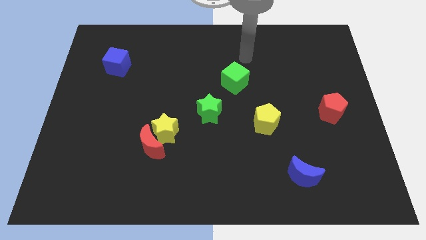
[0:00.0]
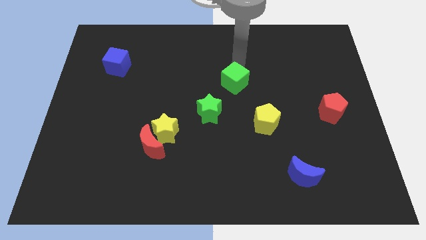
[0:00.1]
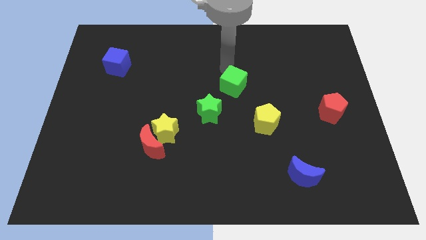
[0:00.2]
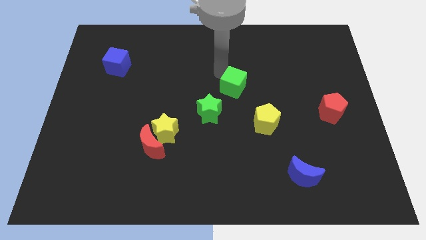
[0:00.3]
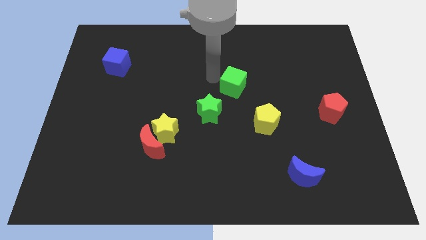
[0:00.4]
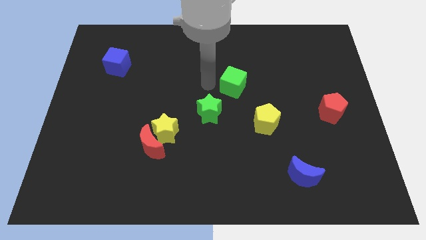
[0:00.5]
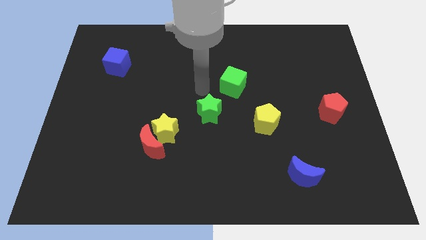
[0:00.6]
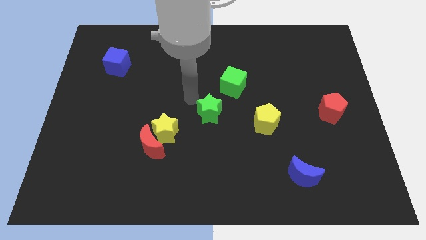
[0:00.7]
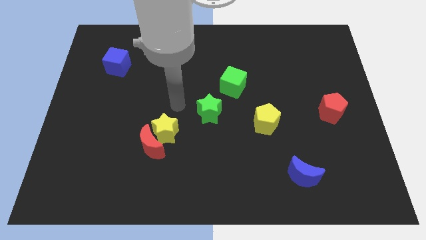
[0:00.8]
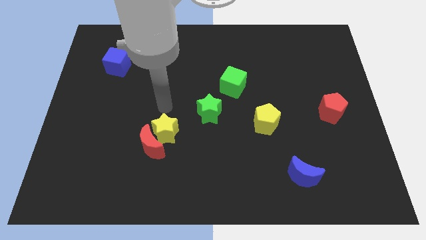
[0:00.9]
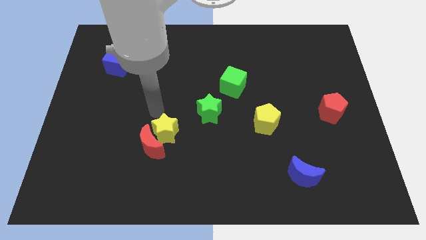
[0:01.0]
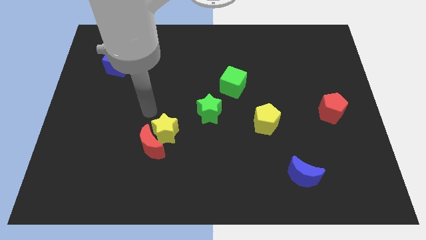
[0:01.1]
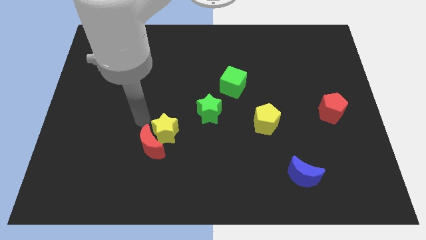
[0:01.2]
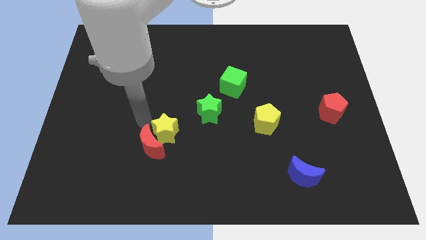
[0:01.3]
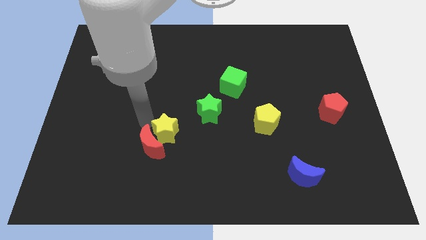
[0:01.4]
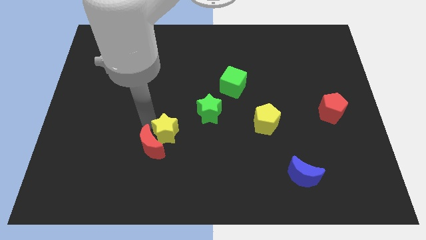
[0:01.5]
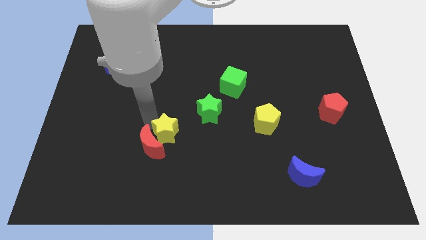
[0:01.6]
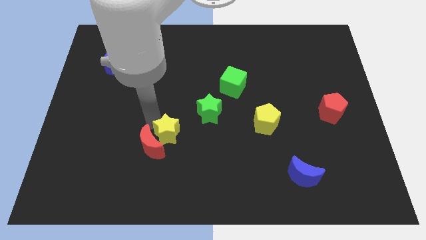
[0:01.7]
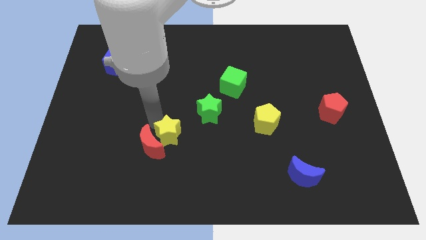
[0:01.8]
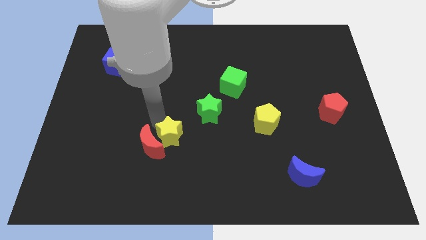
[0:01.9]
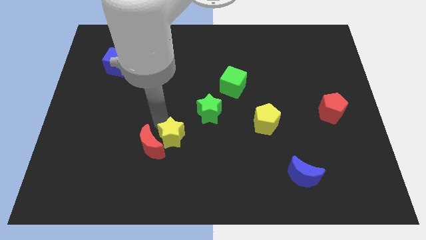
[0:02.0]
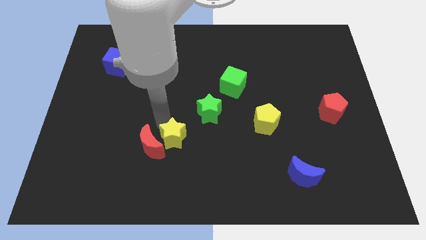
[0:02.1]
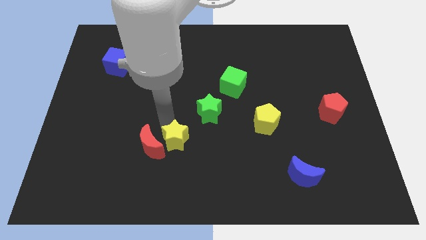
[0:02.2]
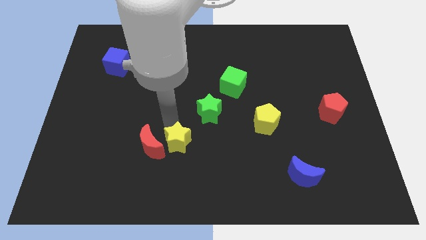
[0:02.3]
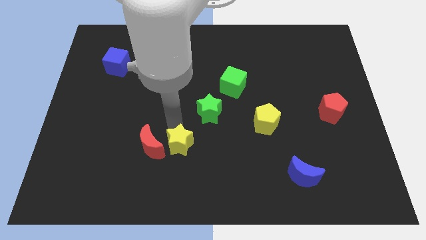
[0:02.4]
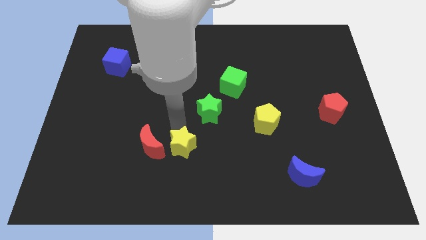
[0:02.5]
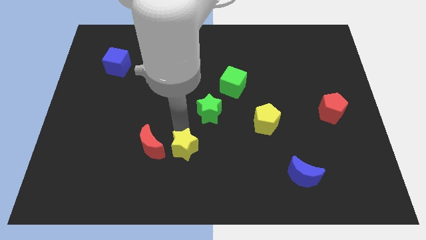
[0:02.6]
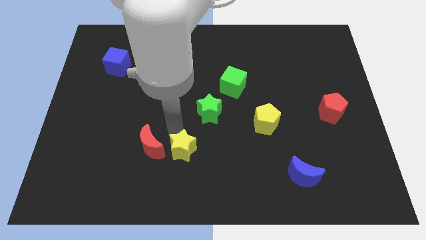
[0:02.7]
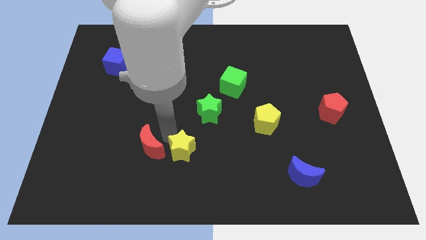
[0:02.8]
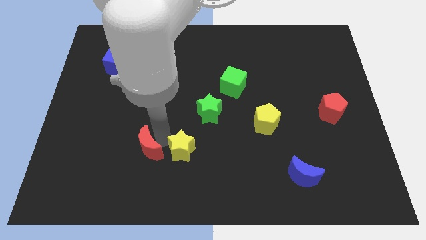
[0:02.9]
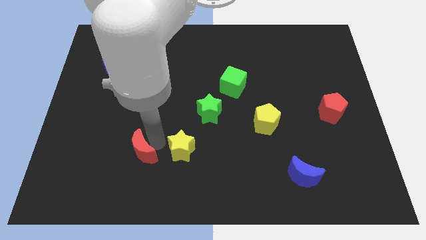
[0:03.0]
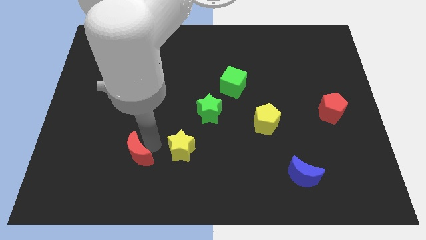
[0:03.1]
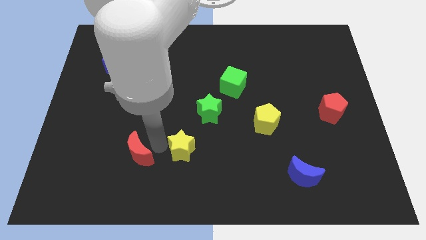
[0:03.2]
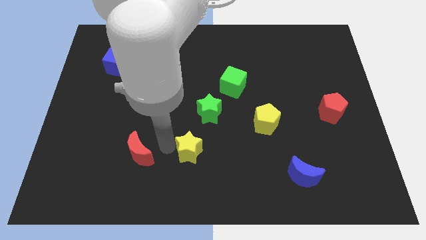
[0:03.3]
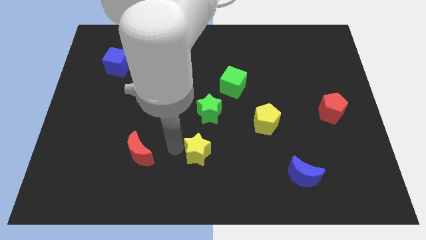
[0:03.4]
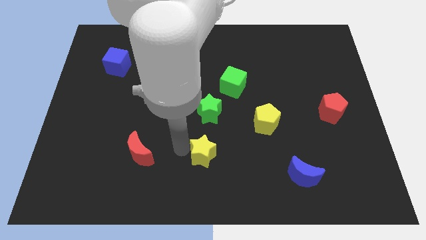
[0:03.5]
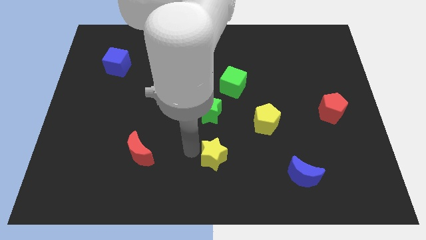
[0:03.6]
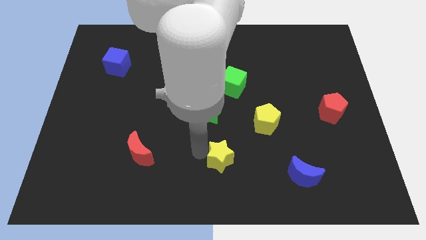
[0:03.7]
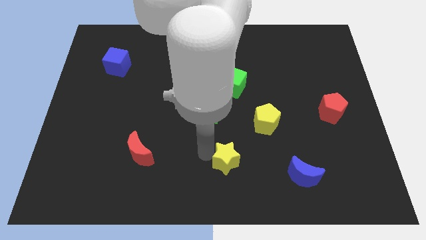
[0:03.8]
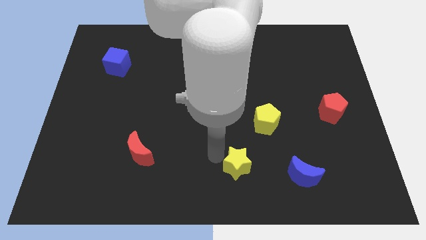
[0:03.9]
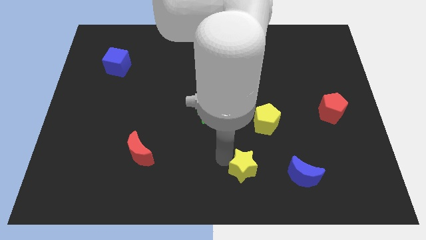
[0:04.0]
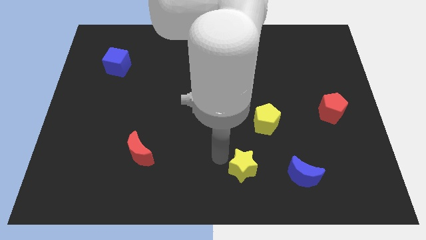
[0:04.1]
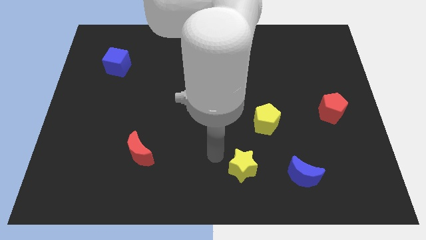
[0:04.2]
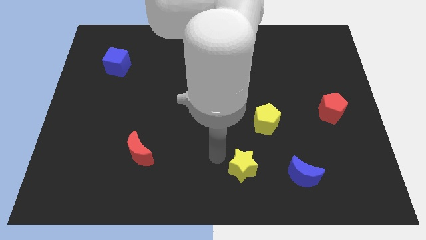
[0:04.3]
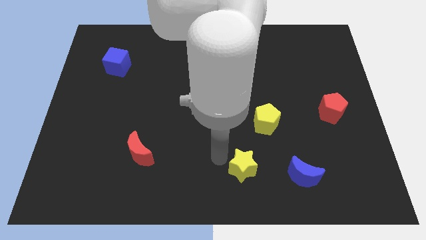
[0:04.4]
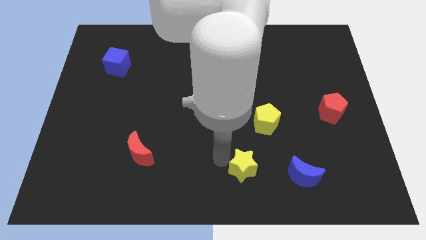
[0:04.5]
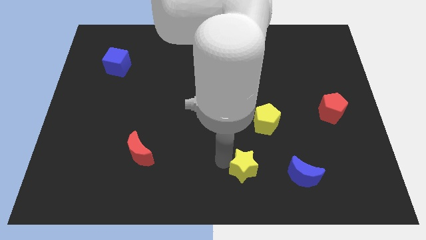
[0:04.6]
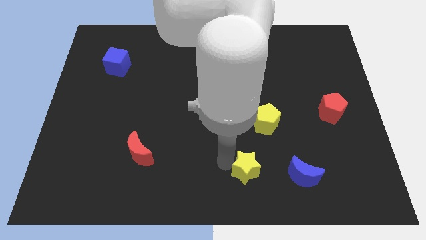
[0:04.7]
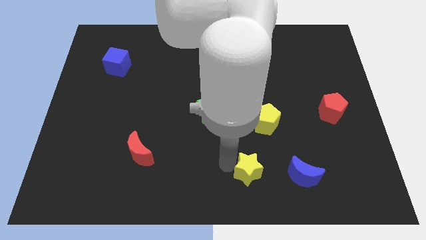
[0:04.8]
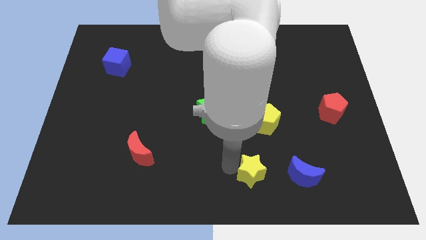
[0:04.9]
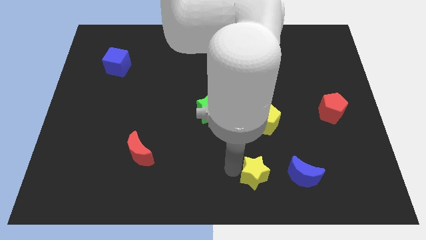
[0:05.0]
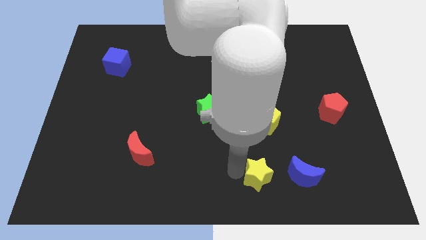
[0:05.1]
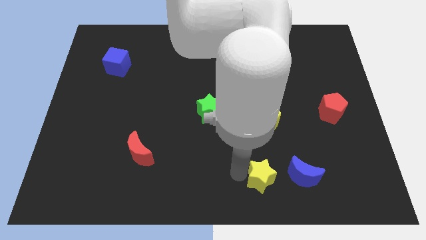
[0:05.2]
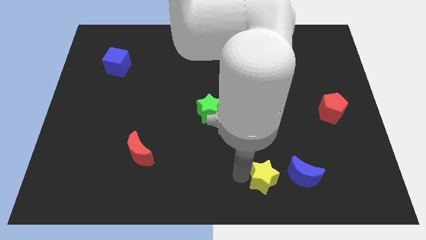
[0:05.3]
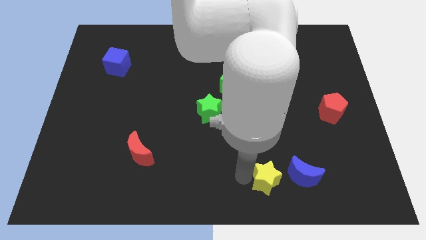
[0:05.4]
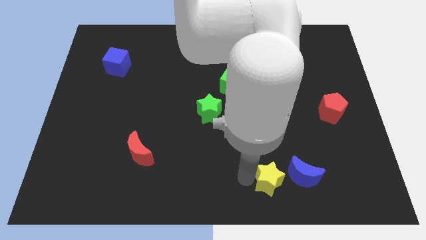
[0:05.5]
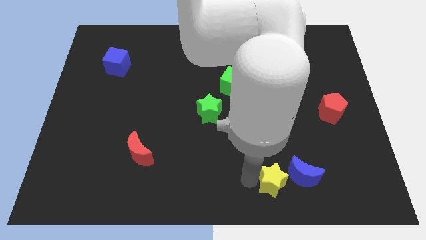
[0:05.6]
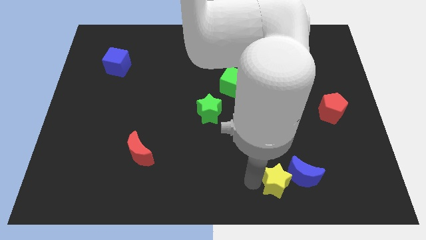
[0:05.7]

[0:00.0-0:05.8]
slide the yellow star towards the blue moon

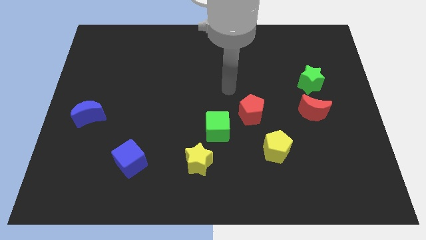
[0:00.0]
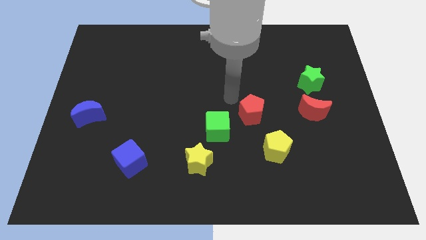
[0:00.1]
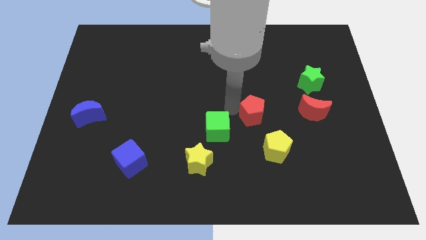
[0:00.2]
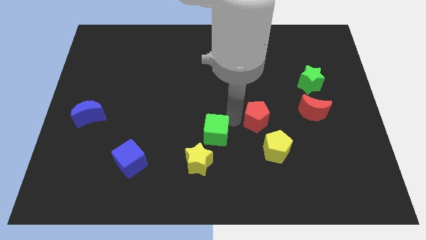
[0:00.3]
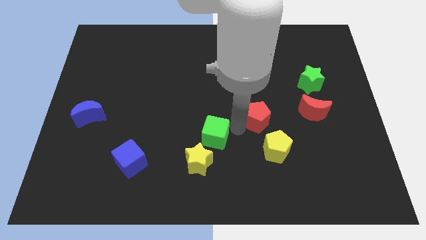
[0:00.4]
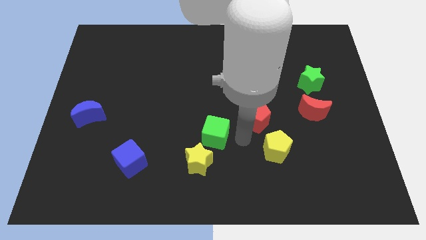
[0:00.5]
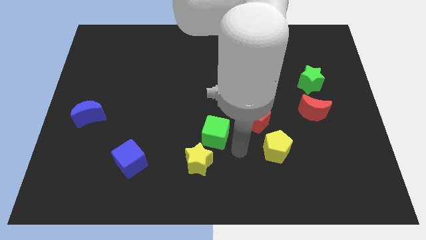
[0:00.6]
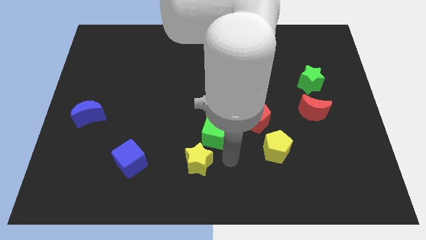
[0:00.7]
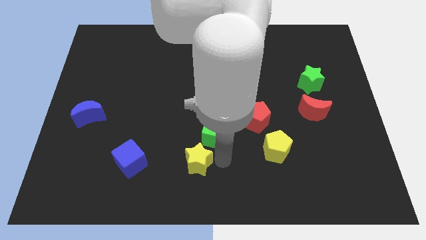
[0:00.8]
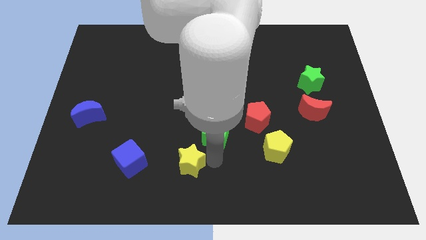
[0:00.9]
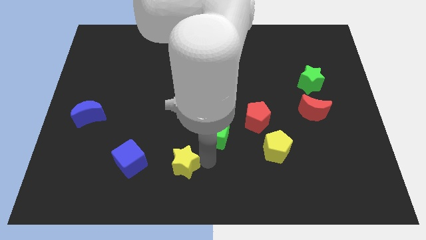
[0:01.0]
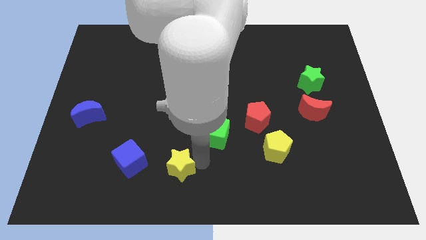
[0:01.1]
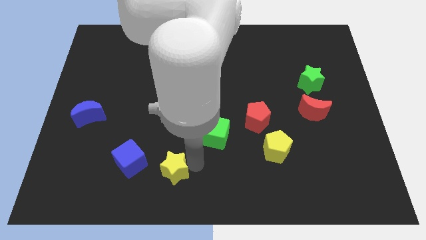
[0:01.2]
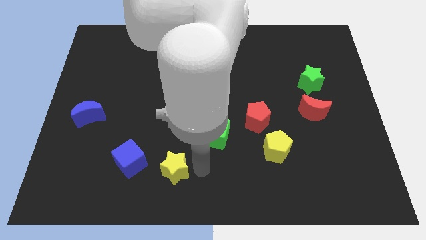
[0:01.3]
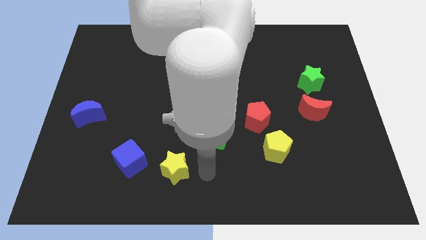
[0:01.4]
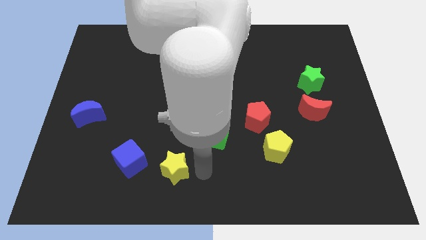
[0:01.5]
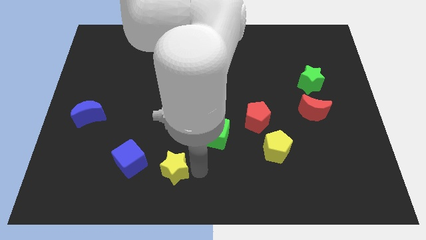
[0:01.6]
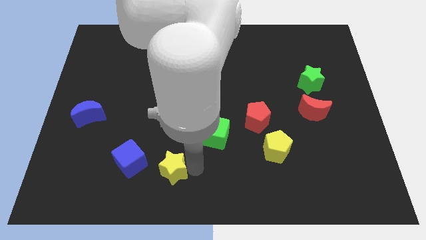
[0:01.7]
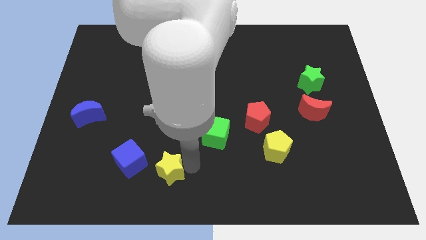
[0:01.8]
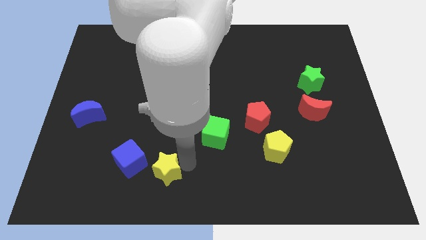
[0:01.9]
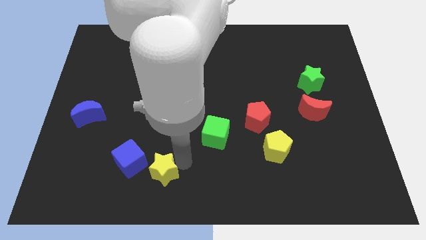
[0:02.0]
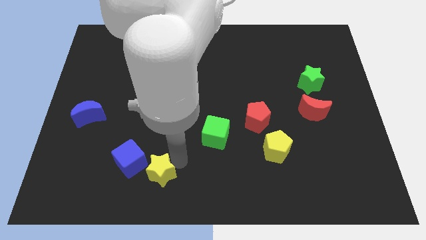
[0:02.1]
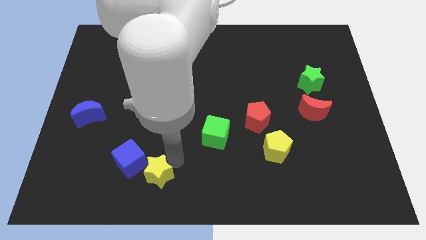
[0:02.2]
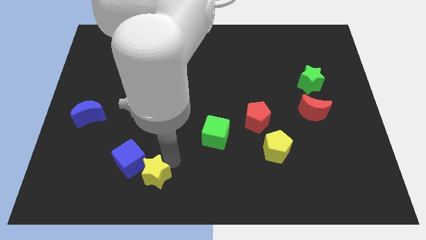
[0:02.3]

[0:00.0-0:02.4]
push the yellow star towards the blue cube
